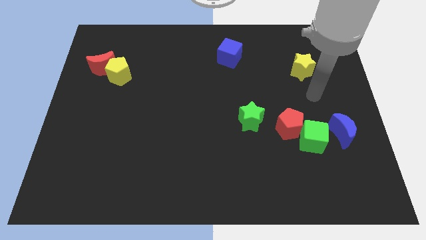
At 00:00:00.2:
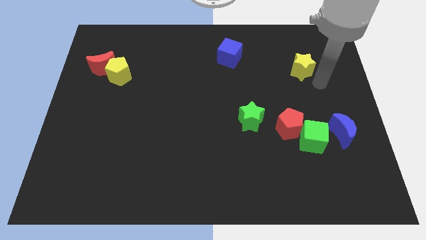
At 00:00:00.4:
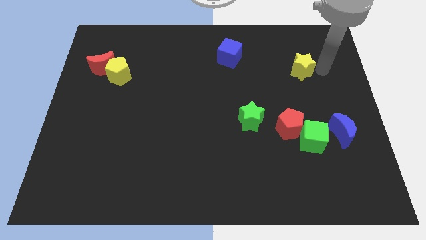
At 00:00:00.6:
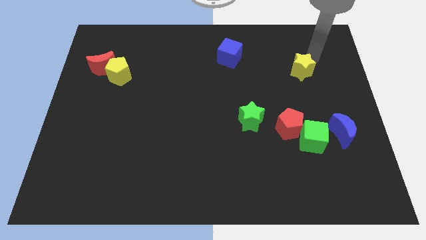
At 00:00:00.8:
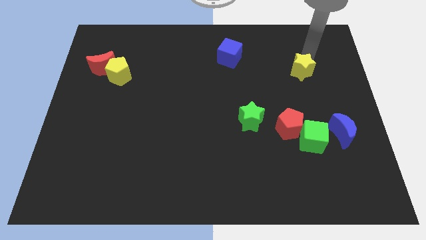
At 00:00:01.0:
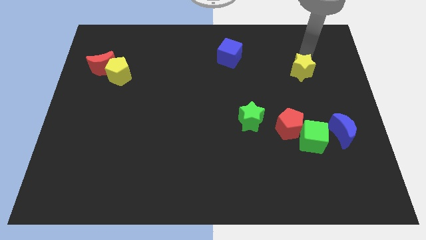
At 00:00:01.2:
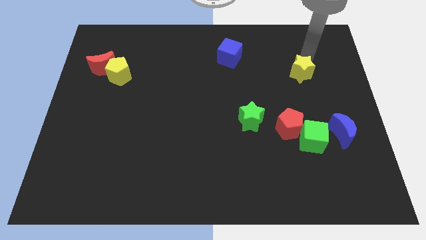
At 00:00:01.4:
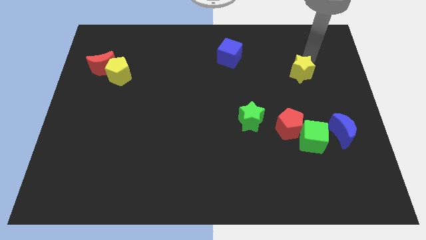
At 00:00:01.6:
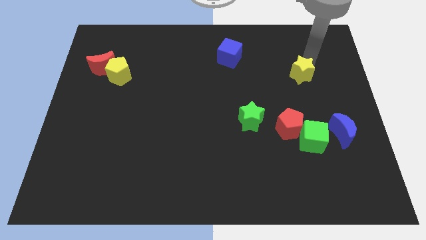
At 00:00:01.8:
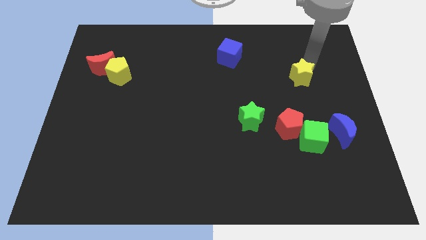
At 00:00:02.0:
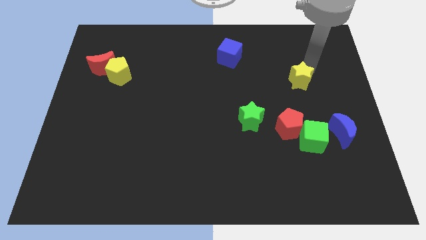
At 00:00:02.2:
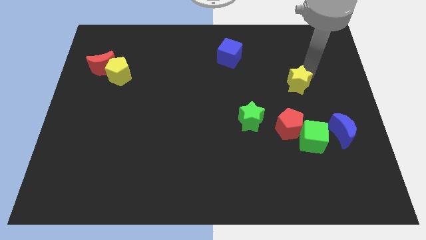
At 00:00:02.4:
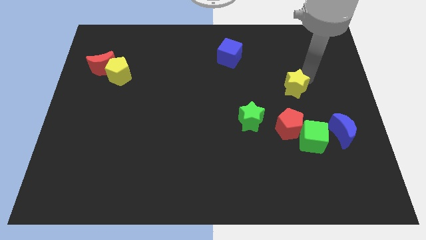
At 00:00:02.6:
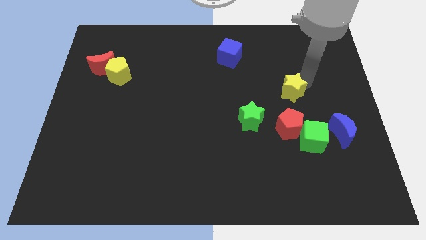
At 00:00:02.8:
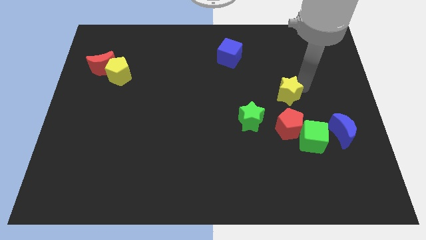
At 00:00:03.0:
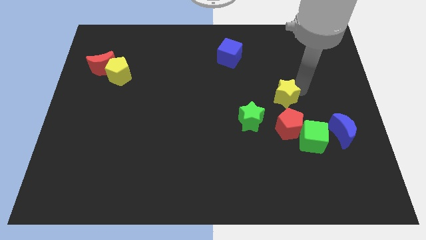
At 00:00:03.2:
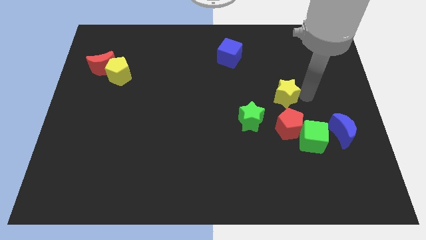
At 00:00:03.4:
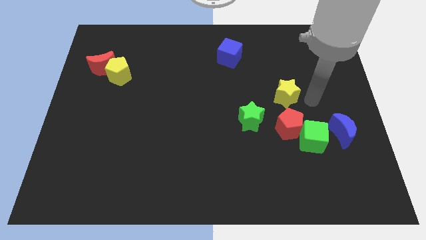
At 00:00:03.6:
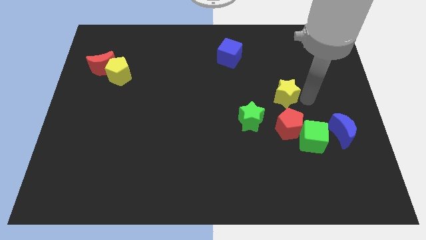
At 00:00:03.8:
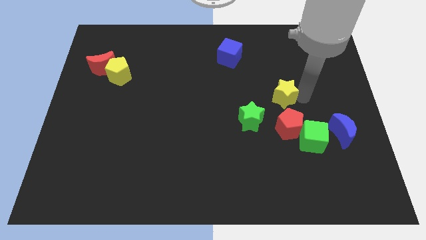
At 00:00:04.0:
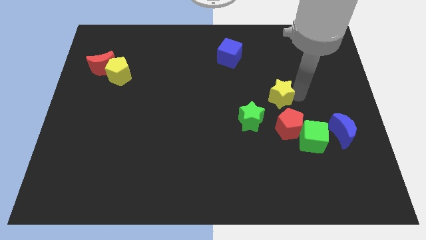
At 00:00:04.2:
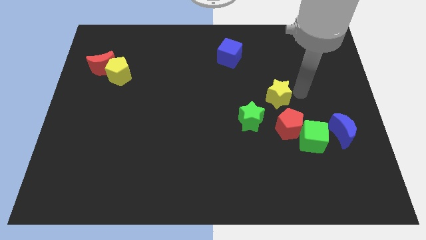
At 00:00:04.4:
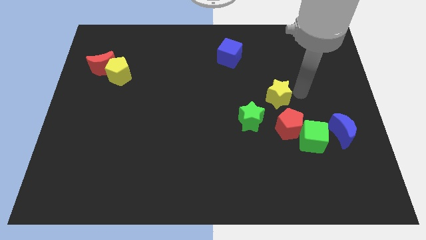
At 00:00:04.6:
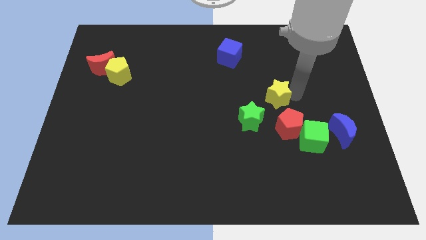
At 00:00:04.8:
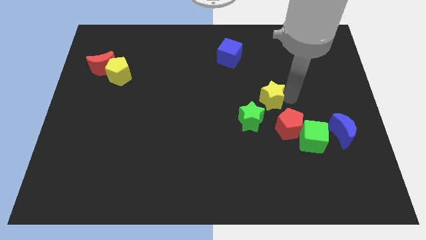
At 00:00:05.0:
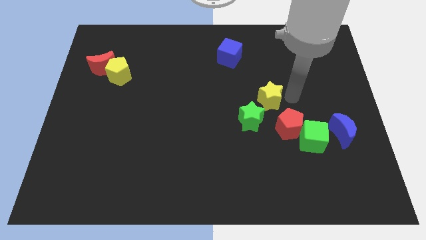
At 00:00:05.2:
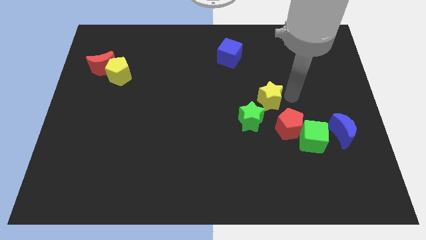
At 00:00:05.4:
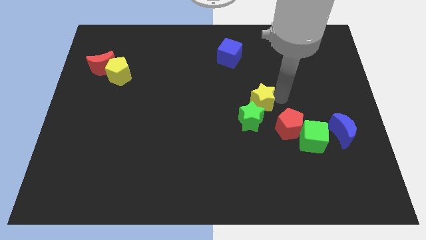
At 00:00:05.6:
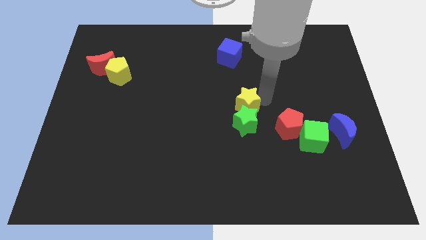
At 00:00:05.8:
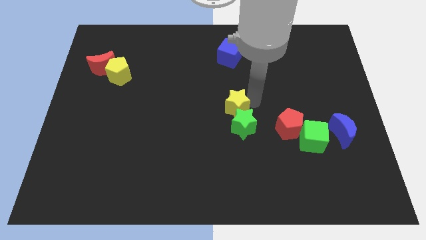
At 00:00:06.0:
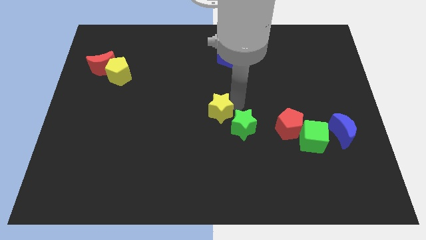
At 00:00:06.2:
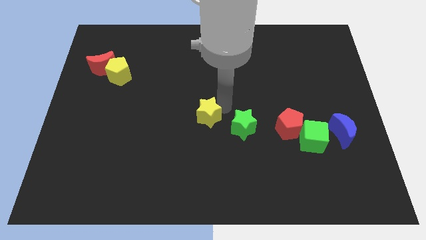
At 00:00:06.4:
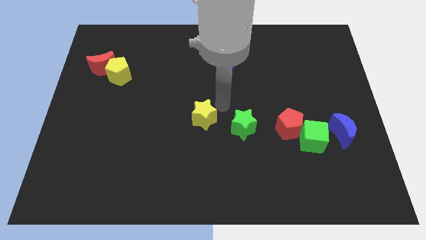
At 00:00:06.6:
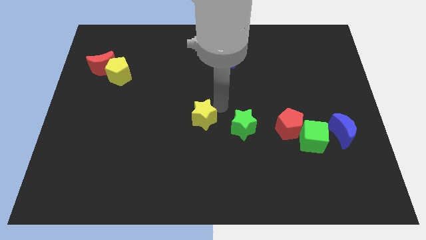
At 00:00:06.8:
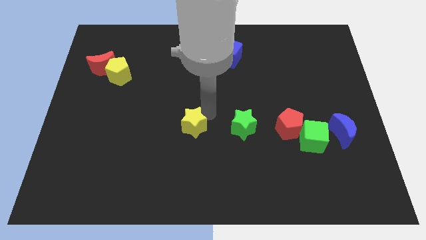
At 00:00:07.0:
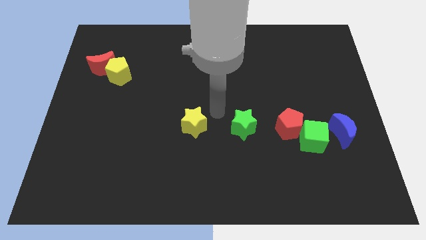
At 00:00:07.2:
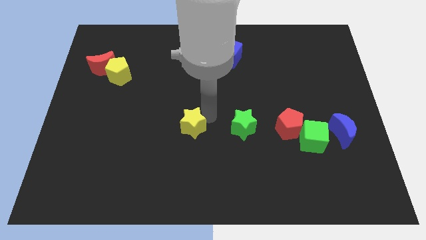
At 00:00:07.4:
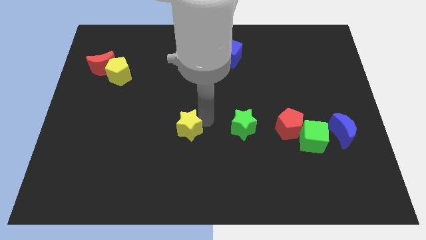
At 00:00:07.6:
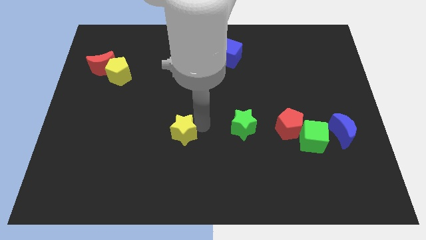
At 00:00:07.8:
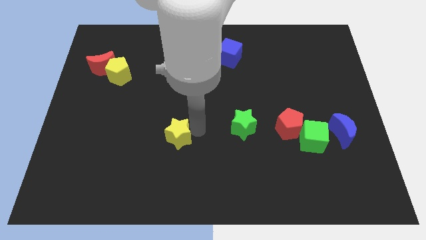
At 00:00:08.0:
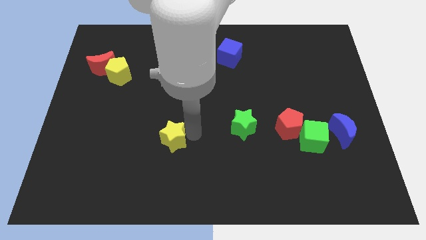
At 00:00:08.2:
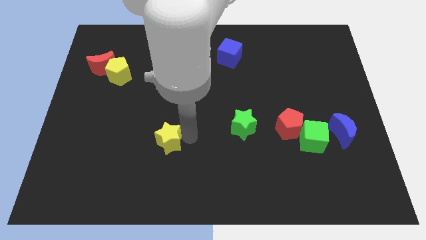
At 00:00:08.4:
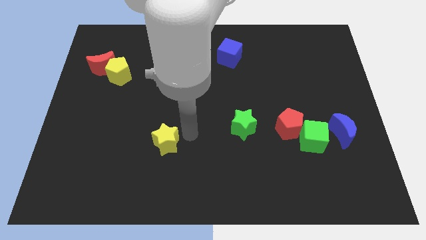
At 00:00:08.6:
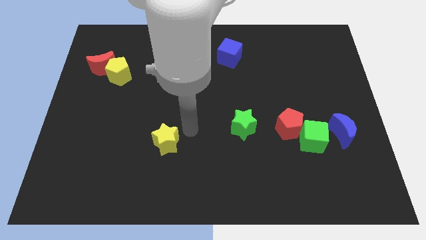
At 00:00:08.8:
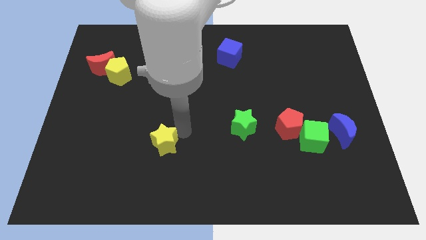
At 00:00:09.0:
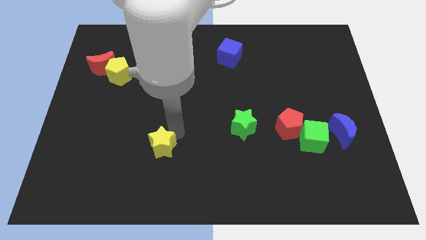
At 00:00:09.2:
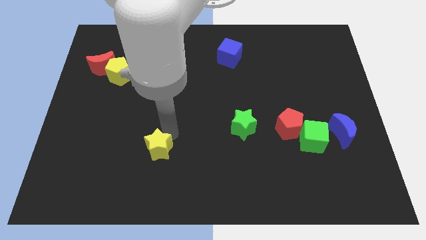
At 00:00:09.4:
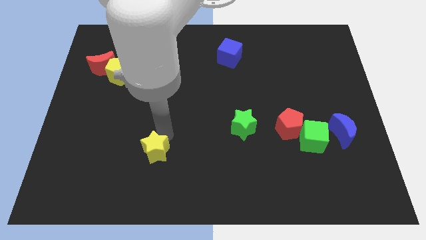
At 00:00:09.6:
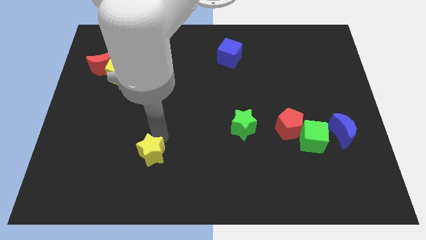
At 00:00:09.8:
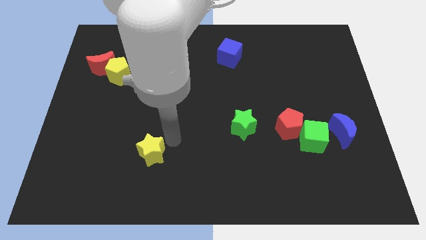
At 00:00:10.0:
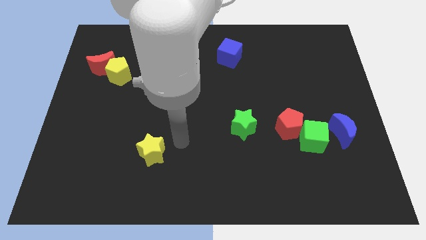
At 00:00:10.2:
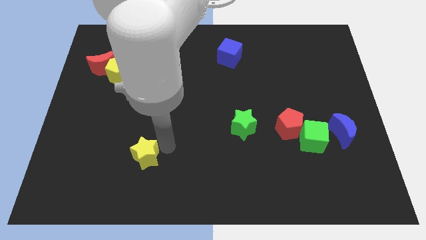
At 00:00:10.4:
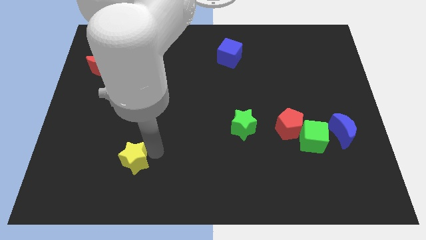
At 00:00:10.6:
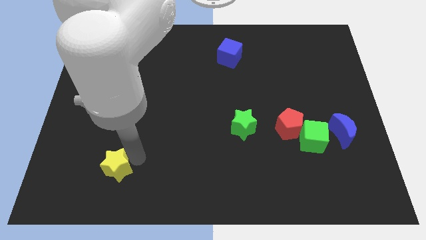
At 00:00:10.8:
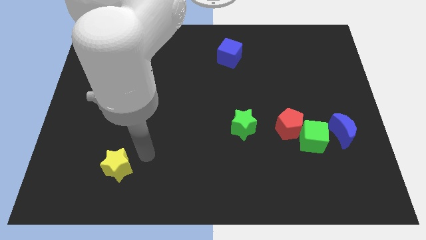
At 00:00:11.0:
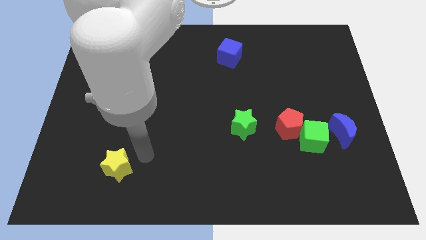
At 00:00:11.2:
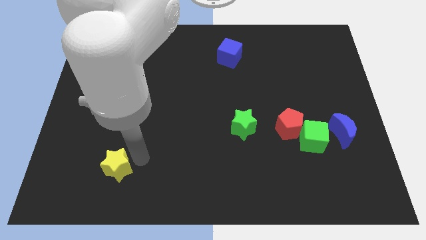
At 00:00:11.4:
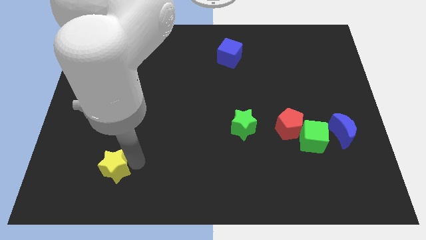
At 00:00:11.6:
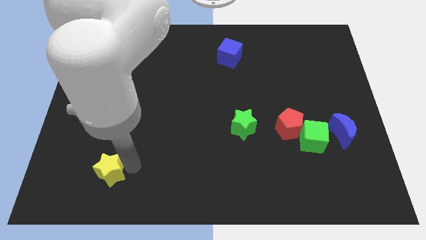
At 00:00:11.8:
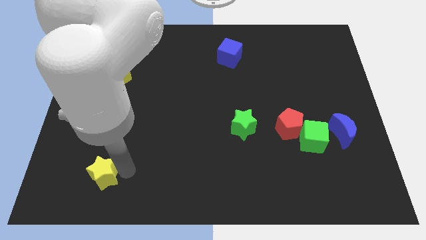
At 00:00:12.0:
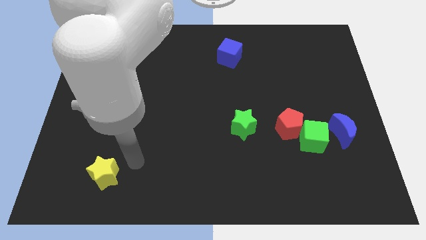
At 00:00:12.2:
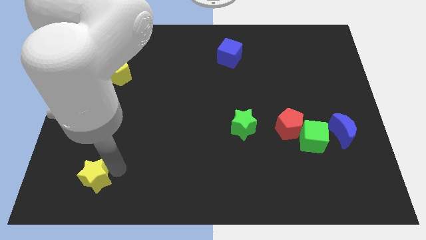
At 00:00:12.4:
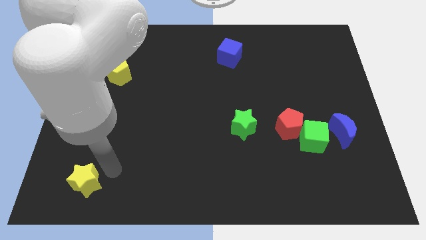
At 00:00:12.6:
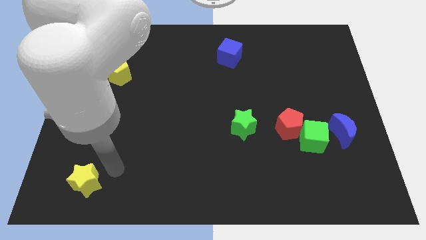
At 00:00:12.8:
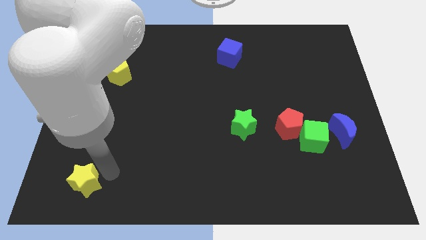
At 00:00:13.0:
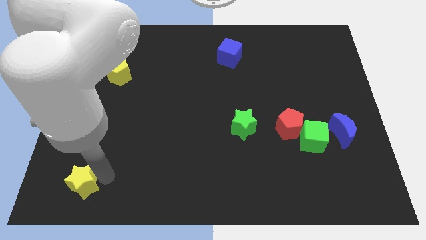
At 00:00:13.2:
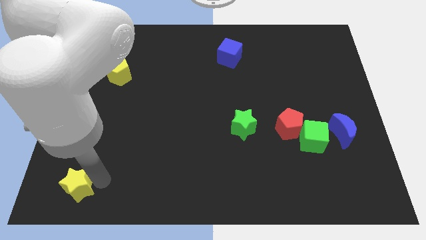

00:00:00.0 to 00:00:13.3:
put the yellow star to the bottom left of the board

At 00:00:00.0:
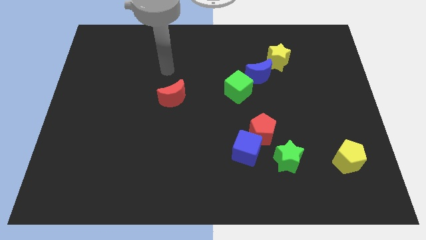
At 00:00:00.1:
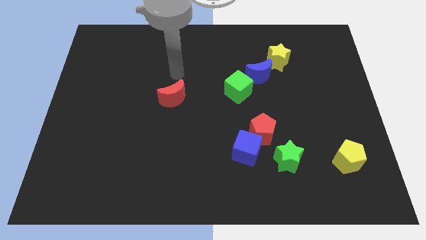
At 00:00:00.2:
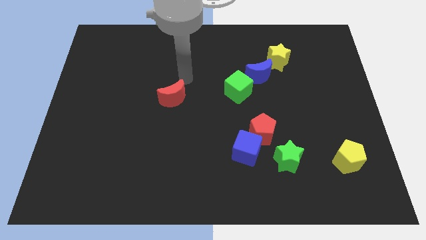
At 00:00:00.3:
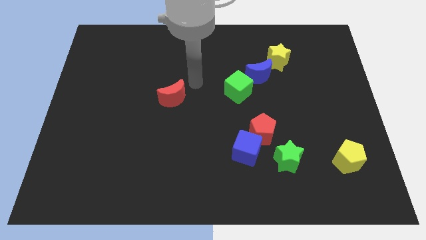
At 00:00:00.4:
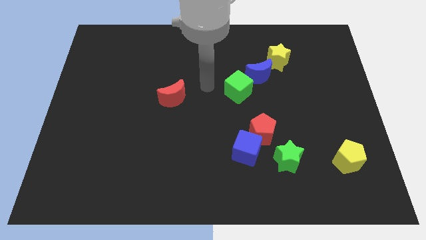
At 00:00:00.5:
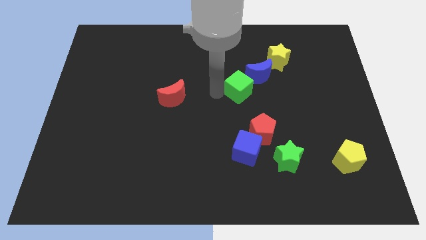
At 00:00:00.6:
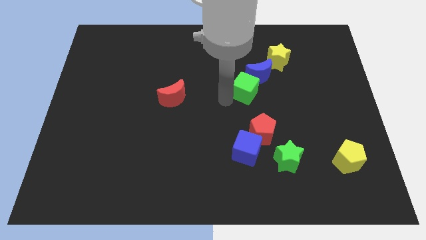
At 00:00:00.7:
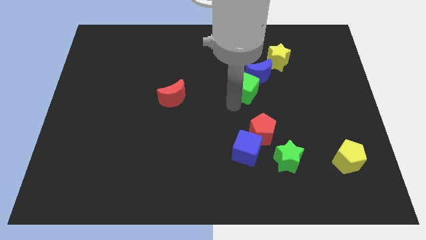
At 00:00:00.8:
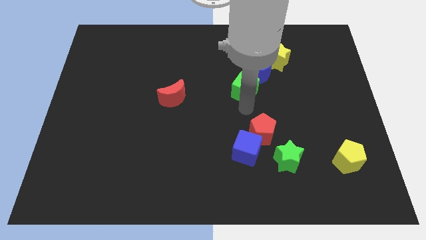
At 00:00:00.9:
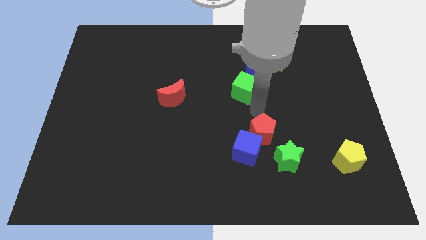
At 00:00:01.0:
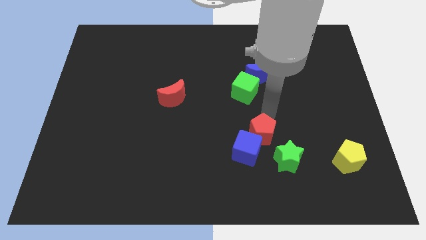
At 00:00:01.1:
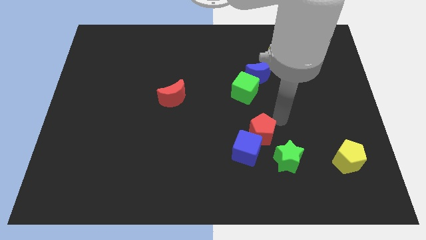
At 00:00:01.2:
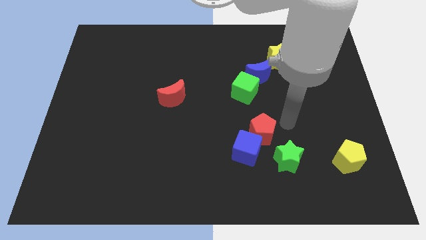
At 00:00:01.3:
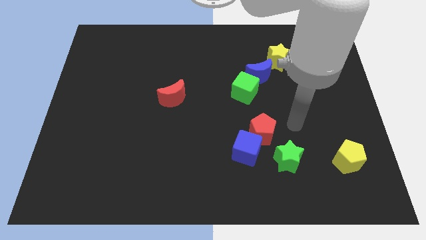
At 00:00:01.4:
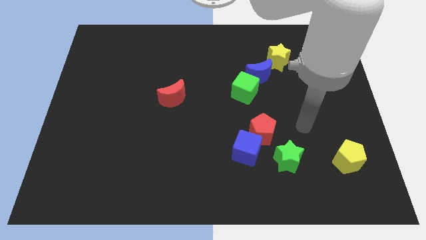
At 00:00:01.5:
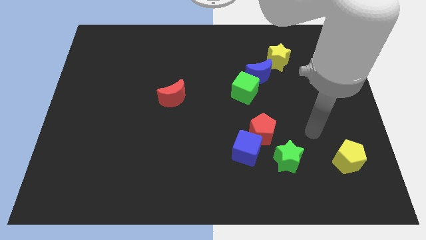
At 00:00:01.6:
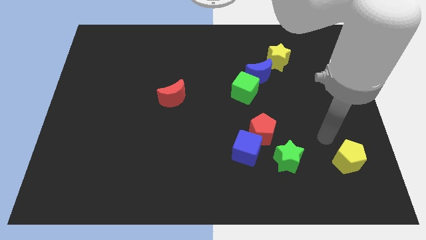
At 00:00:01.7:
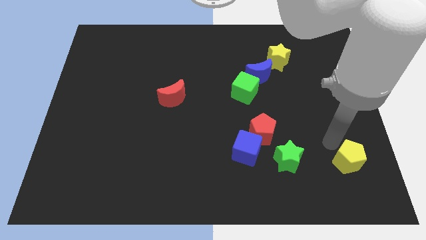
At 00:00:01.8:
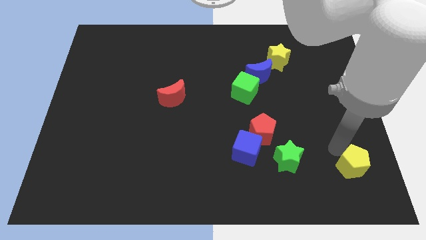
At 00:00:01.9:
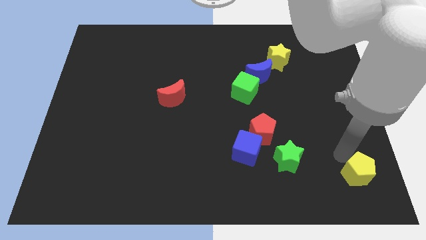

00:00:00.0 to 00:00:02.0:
push the yellow pentagon to the bottom right
